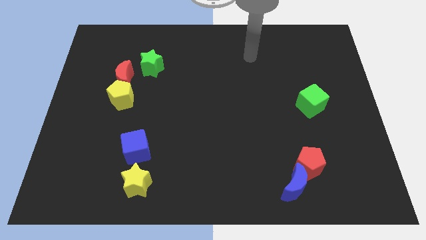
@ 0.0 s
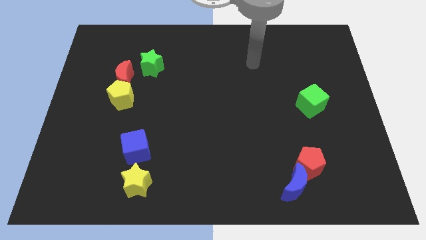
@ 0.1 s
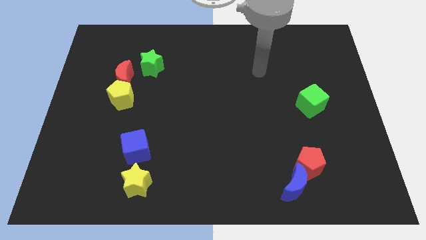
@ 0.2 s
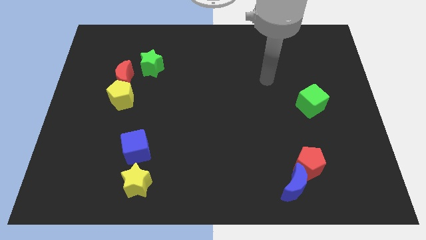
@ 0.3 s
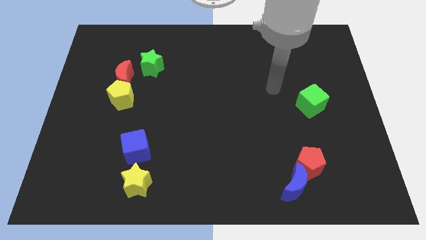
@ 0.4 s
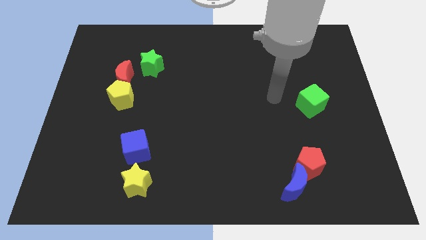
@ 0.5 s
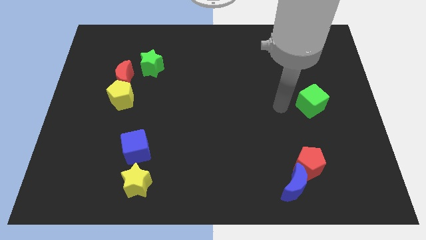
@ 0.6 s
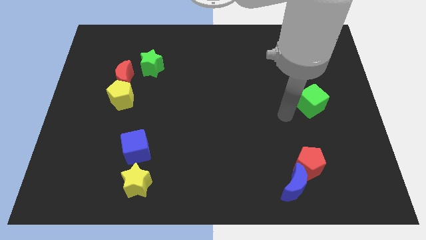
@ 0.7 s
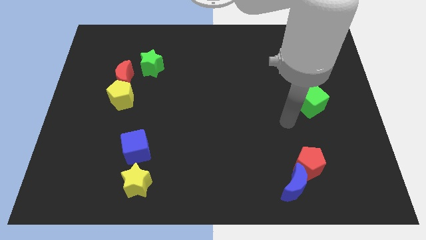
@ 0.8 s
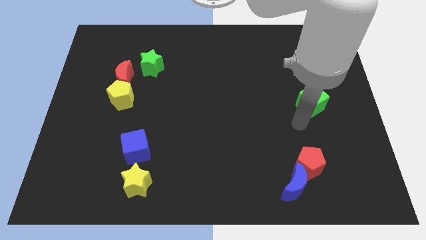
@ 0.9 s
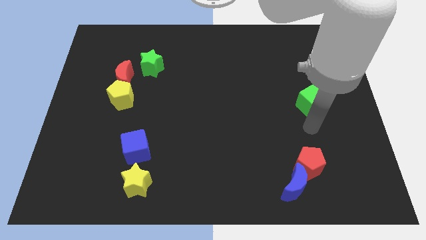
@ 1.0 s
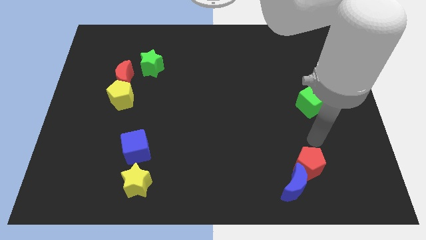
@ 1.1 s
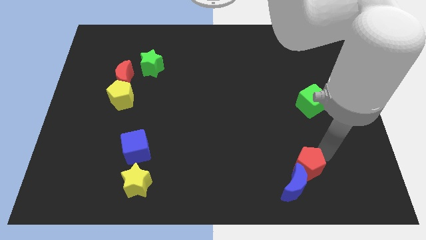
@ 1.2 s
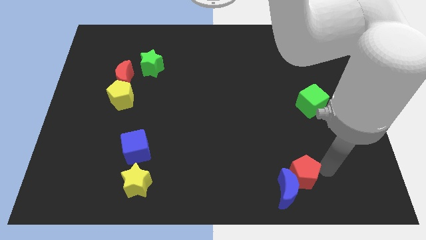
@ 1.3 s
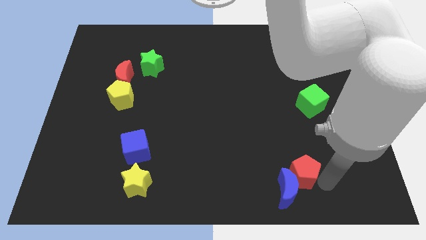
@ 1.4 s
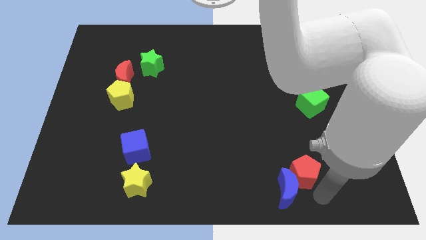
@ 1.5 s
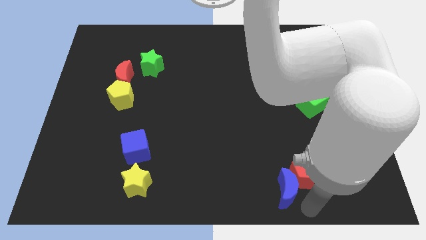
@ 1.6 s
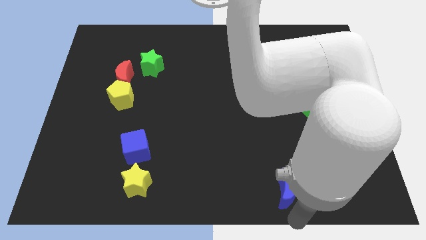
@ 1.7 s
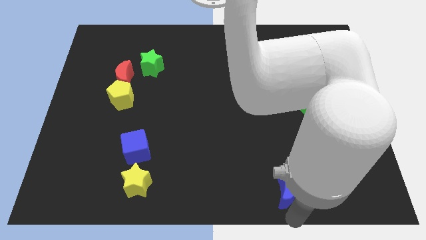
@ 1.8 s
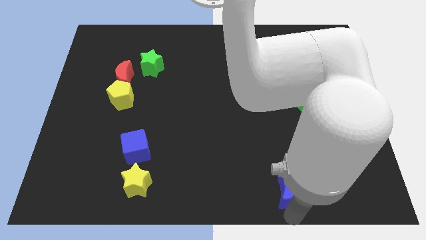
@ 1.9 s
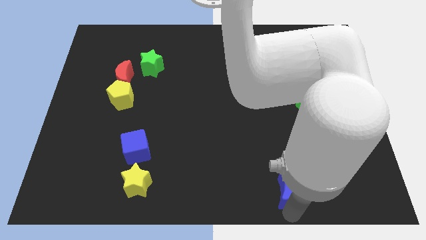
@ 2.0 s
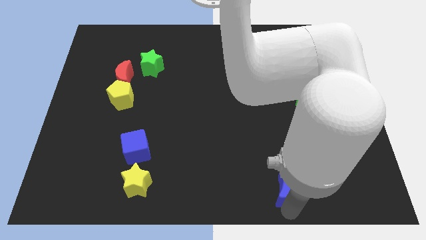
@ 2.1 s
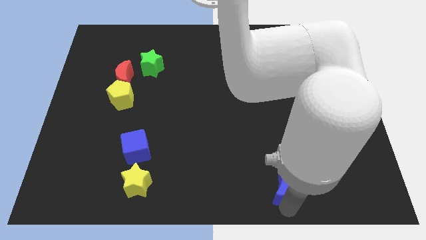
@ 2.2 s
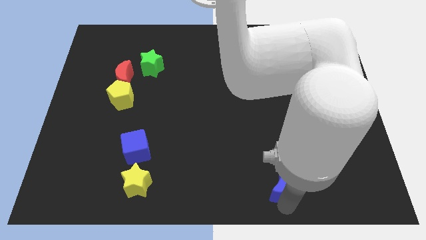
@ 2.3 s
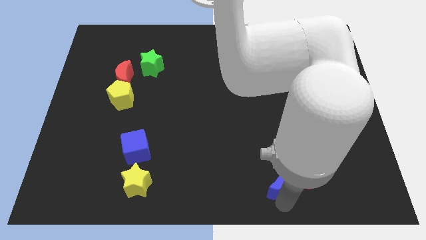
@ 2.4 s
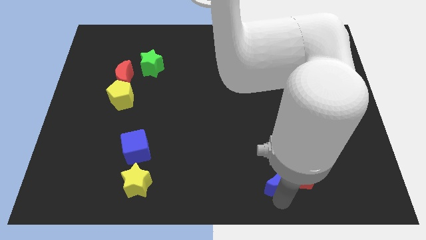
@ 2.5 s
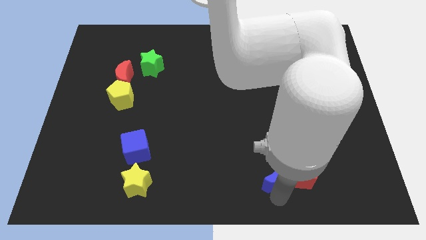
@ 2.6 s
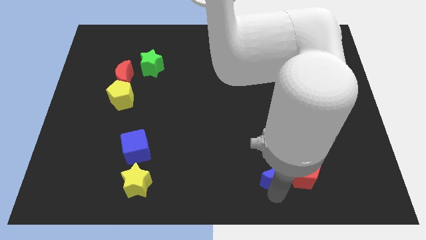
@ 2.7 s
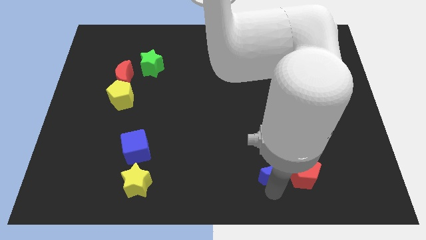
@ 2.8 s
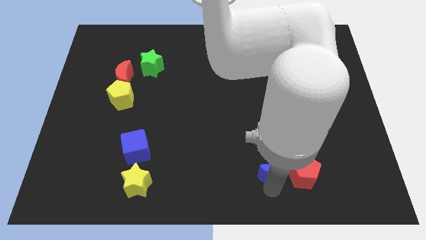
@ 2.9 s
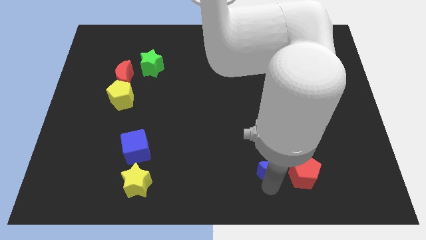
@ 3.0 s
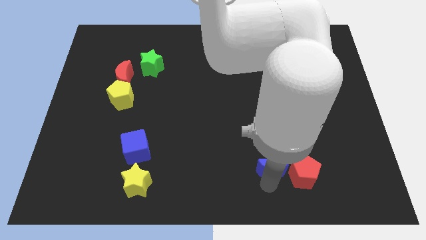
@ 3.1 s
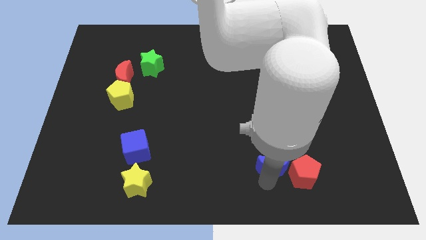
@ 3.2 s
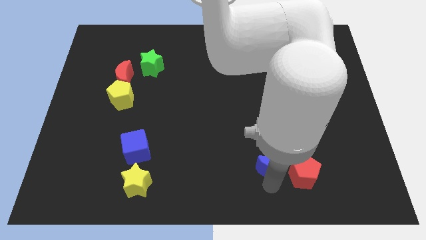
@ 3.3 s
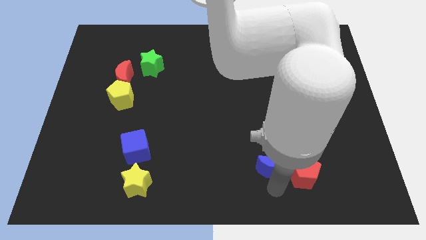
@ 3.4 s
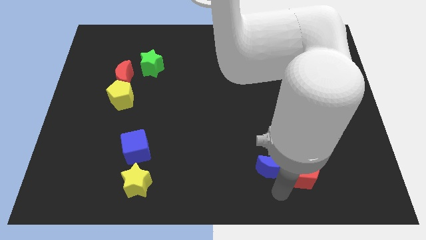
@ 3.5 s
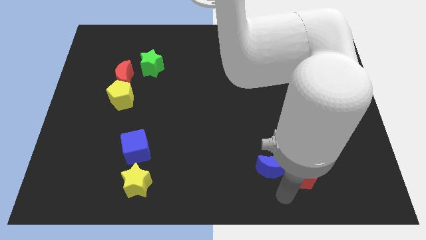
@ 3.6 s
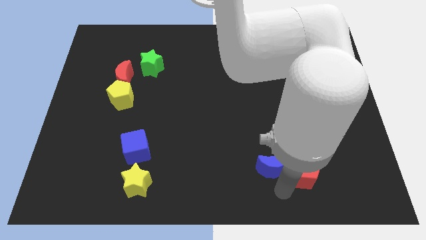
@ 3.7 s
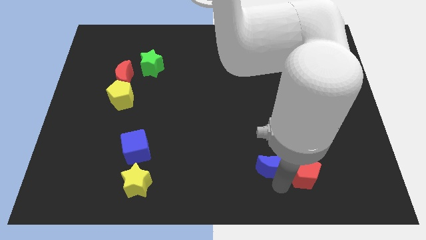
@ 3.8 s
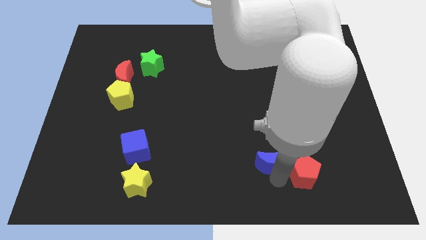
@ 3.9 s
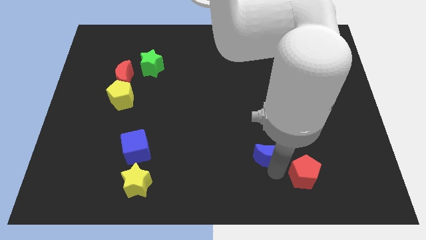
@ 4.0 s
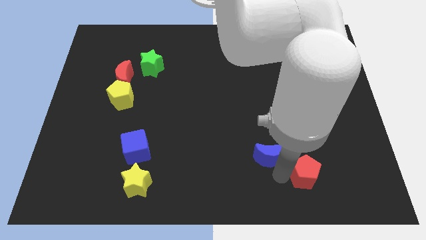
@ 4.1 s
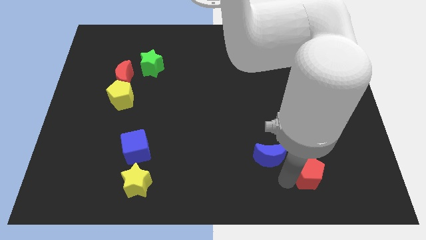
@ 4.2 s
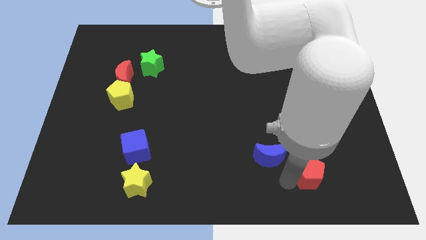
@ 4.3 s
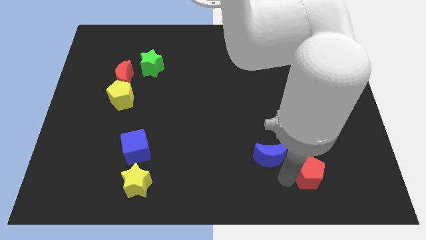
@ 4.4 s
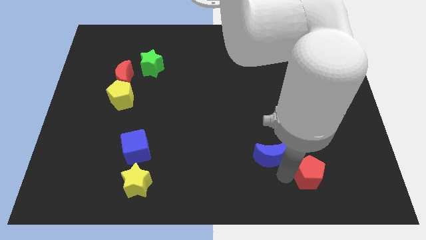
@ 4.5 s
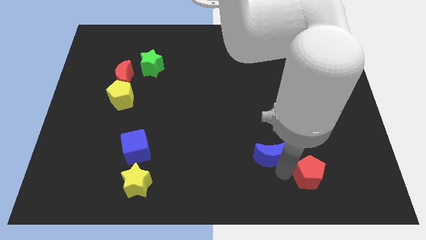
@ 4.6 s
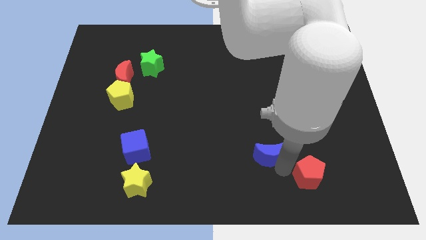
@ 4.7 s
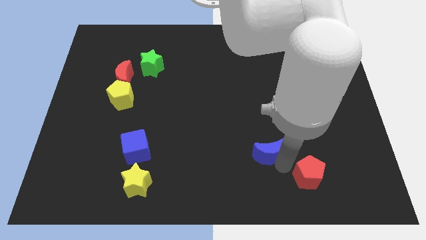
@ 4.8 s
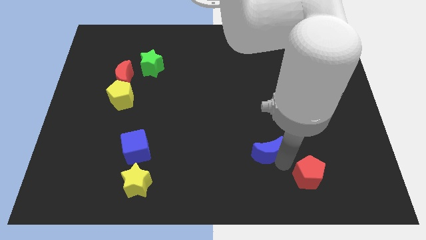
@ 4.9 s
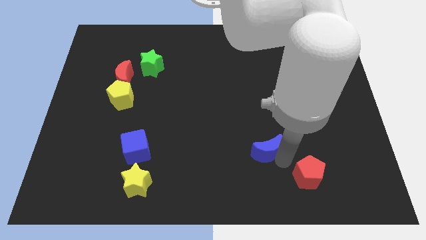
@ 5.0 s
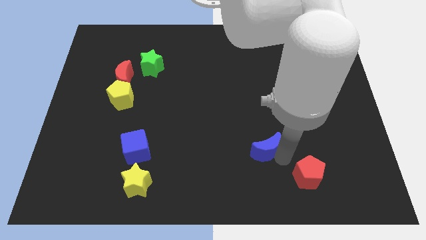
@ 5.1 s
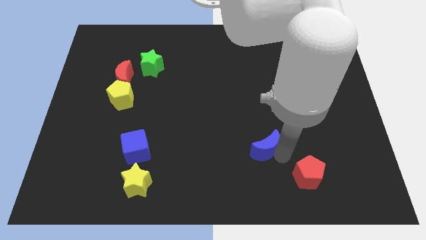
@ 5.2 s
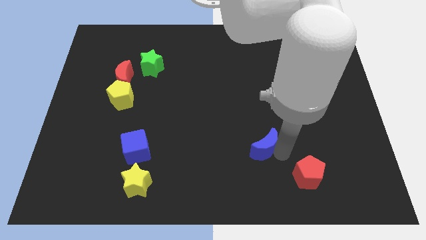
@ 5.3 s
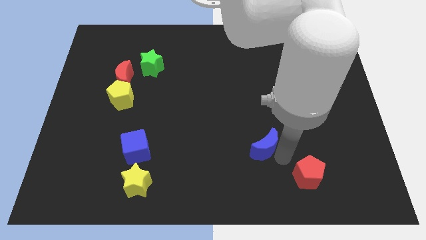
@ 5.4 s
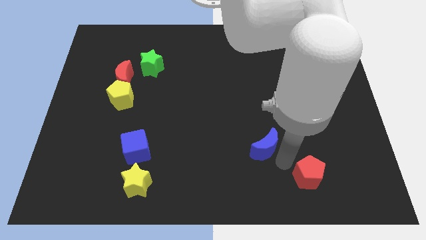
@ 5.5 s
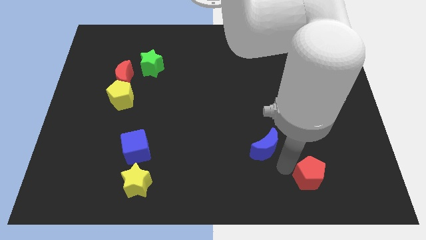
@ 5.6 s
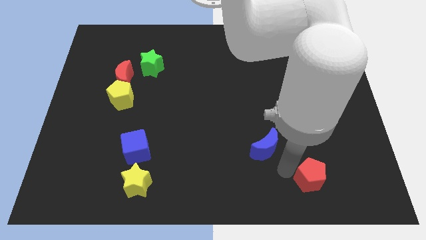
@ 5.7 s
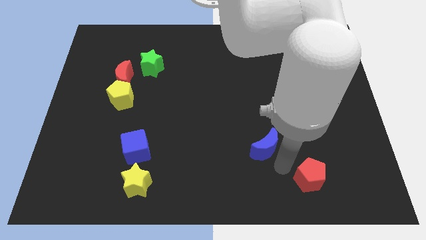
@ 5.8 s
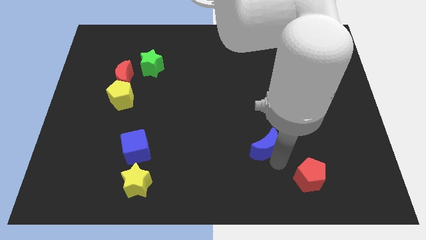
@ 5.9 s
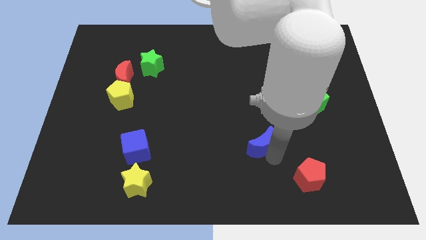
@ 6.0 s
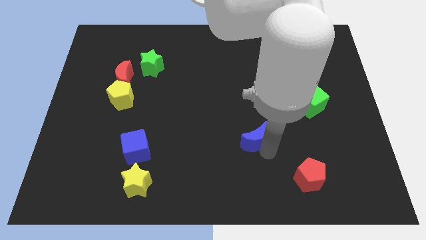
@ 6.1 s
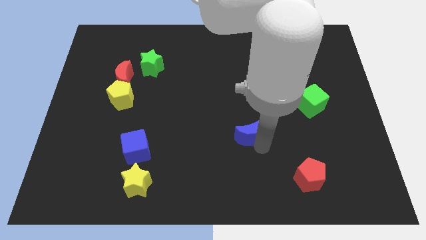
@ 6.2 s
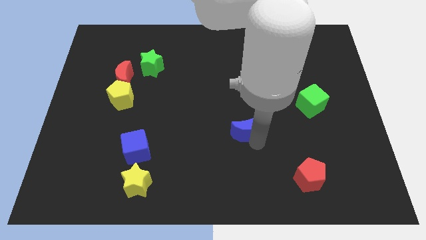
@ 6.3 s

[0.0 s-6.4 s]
put the blue moon to the middle of the board
